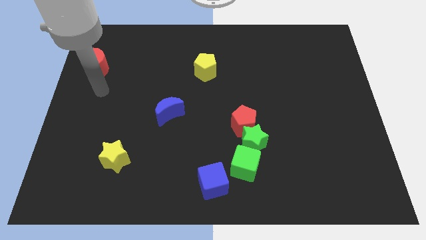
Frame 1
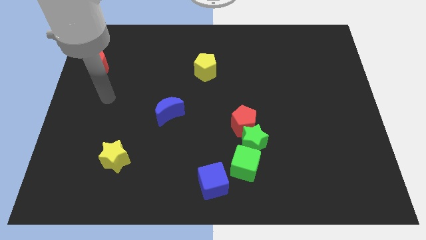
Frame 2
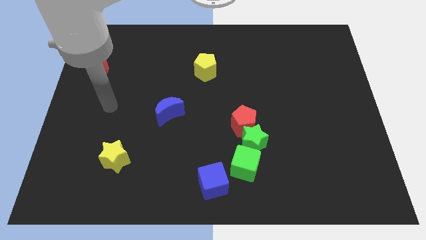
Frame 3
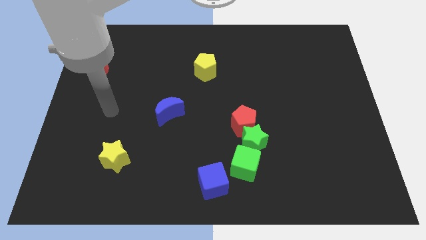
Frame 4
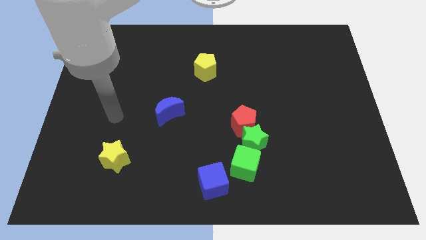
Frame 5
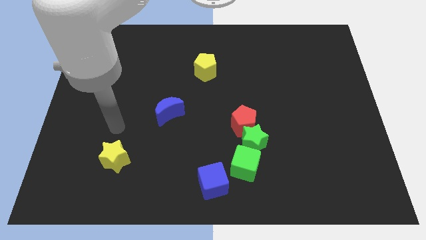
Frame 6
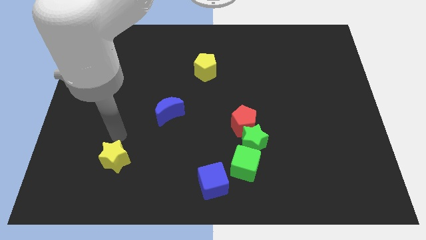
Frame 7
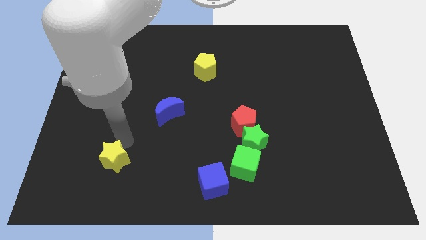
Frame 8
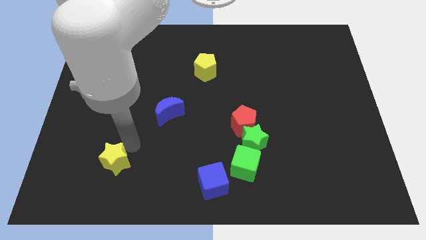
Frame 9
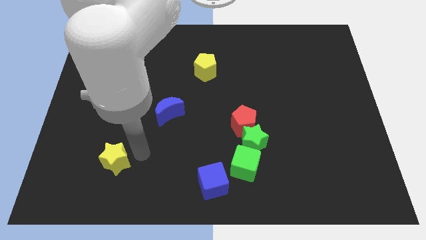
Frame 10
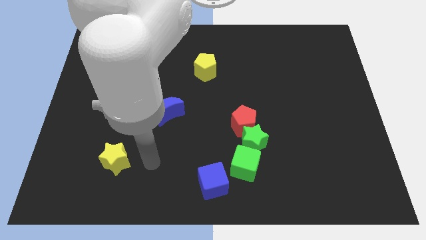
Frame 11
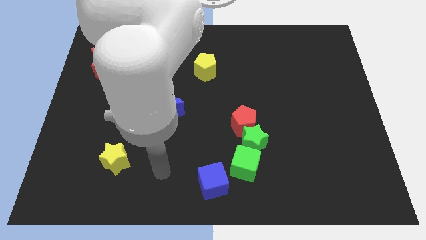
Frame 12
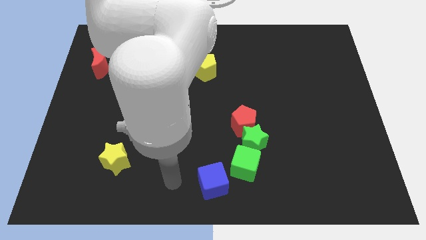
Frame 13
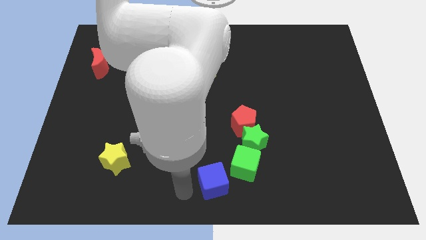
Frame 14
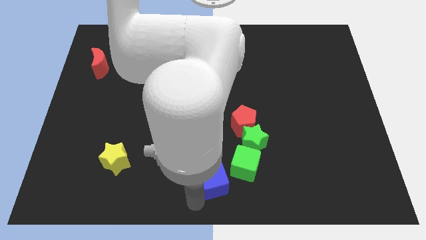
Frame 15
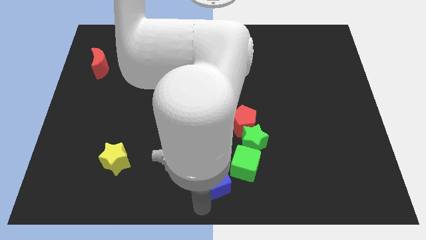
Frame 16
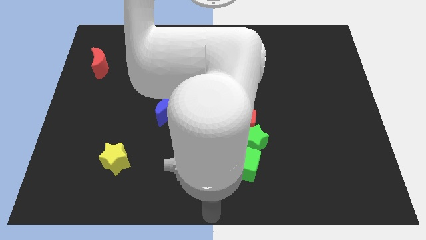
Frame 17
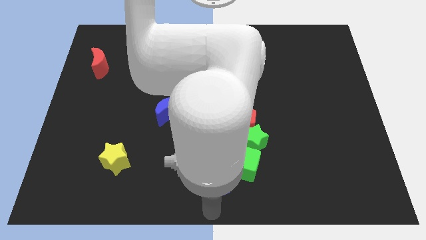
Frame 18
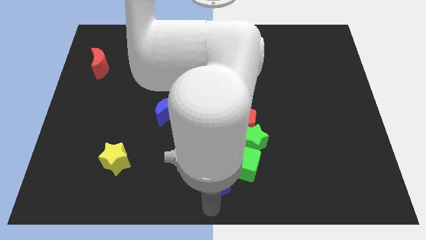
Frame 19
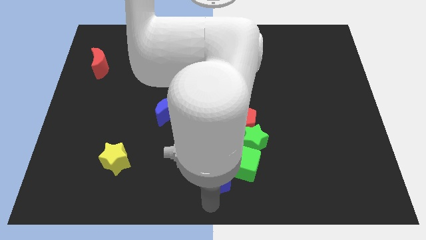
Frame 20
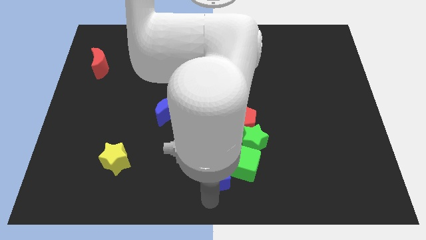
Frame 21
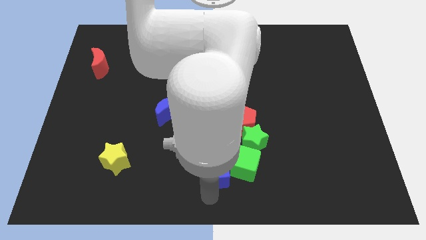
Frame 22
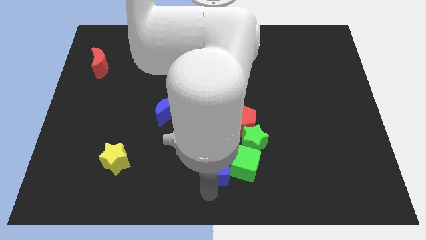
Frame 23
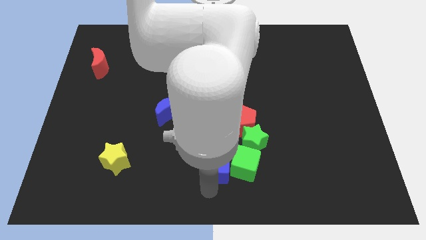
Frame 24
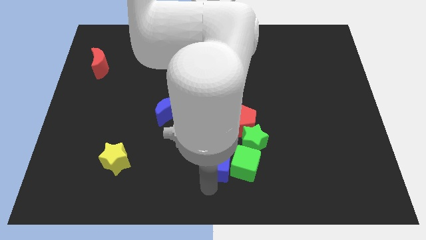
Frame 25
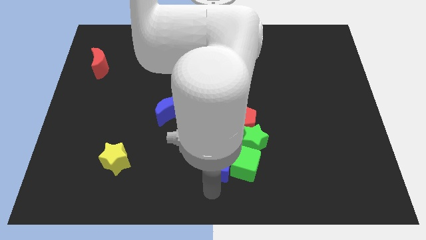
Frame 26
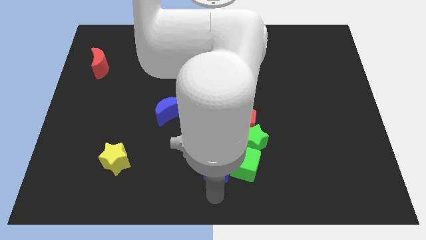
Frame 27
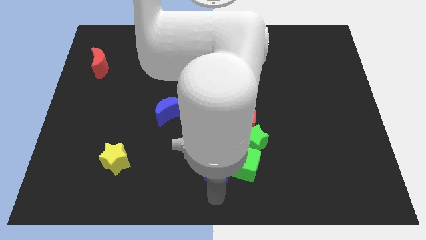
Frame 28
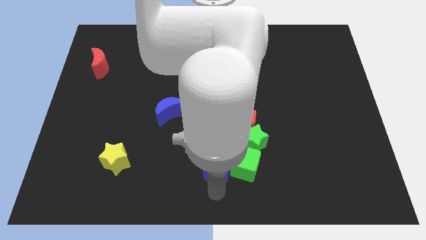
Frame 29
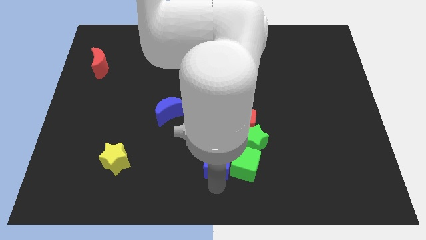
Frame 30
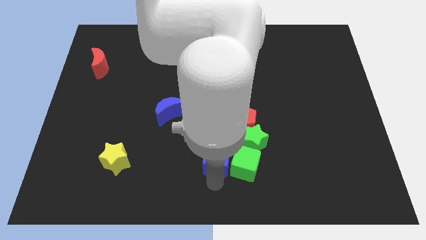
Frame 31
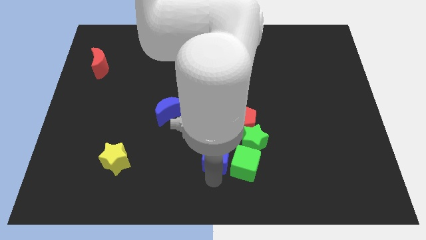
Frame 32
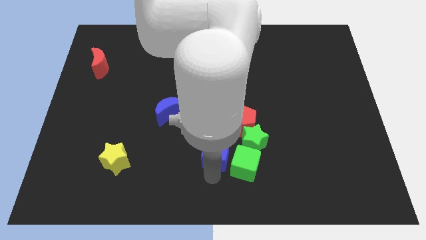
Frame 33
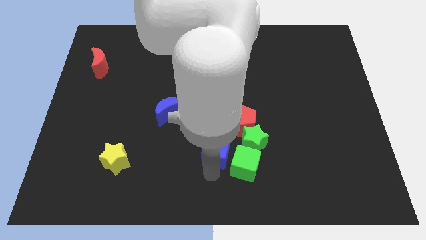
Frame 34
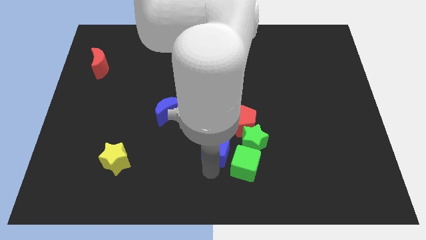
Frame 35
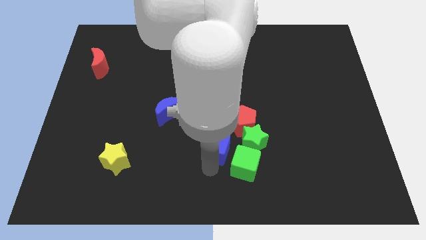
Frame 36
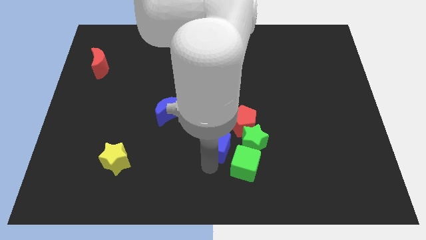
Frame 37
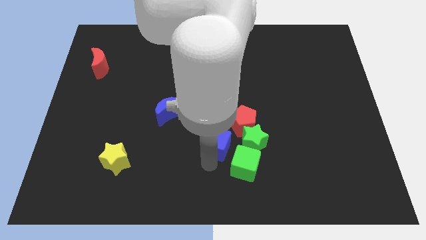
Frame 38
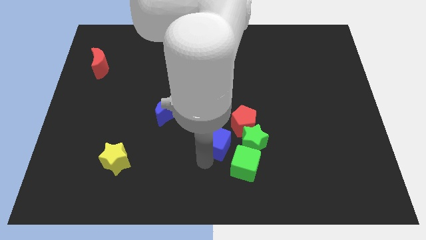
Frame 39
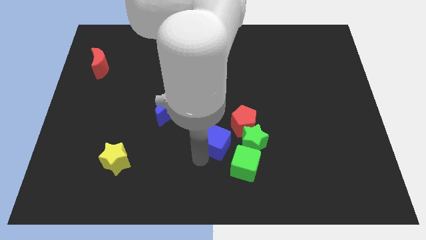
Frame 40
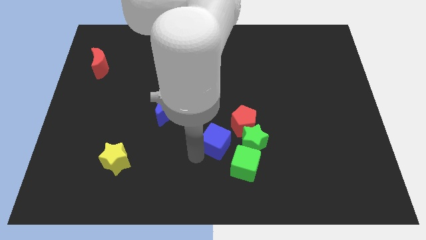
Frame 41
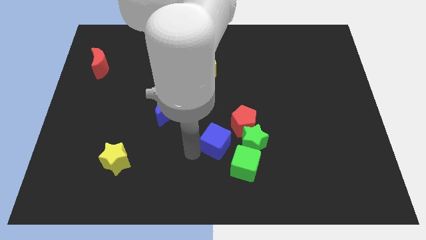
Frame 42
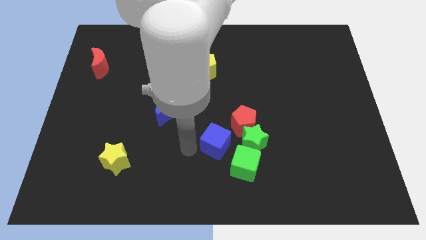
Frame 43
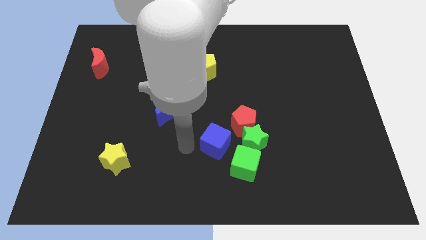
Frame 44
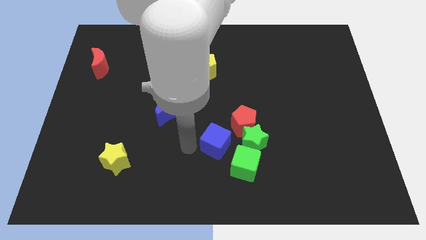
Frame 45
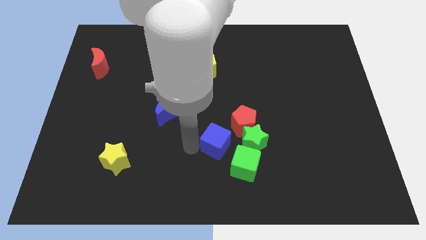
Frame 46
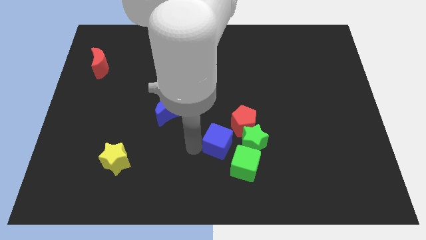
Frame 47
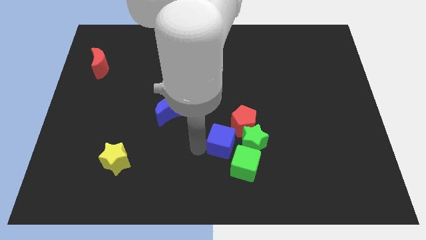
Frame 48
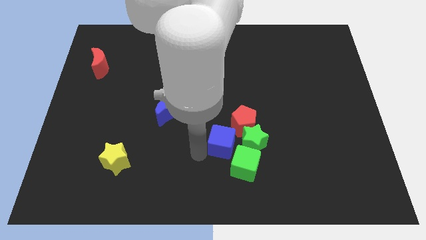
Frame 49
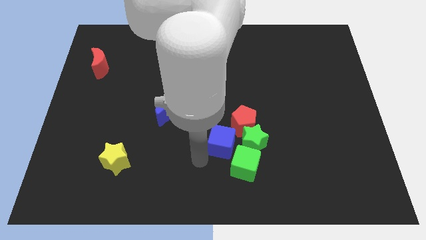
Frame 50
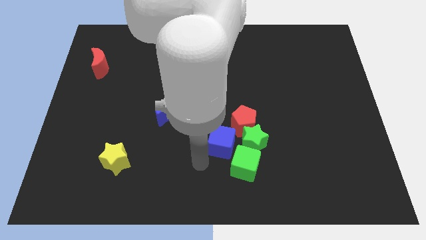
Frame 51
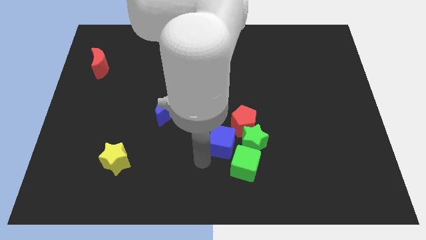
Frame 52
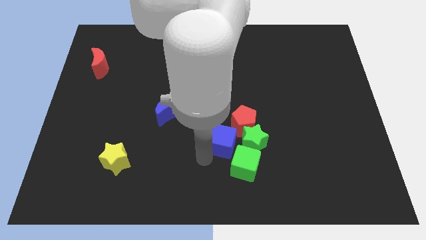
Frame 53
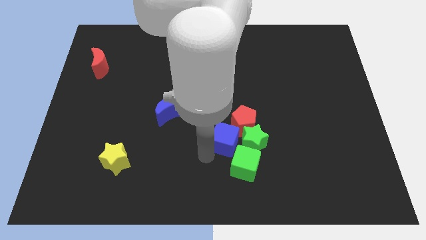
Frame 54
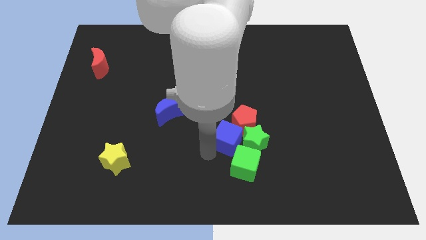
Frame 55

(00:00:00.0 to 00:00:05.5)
push the blue cube next to the red pentagon

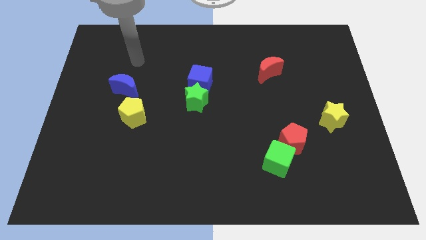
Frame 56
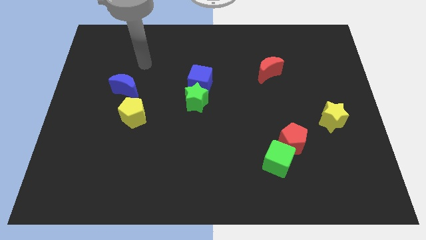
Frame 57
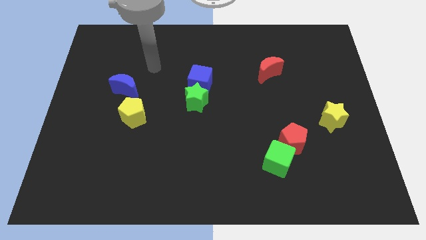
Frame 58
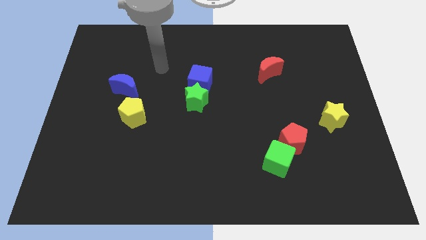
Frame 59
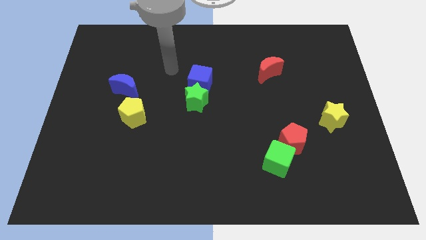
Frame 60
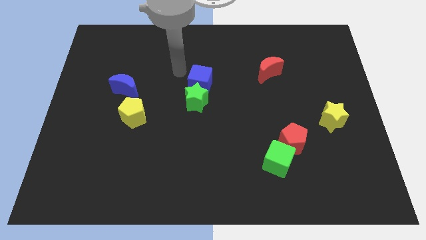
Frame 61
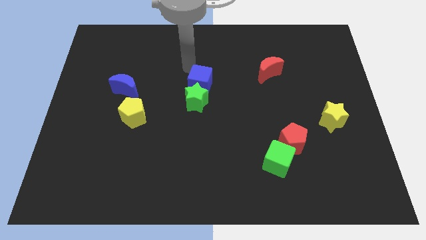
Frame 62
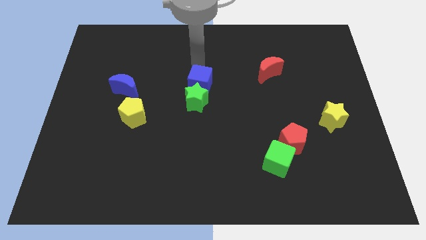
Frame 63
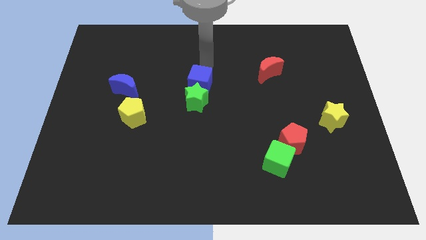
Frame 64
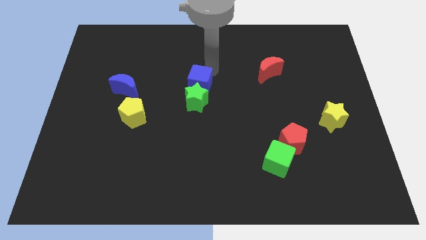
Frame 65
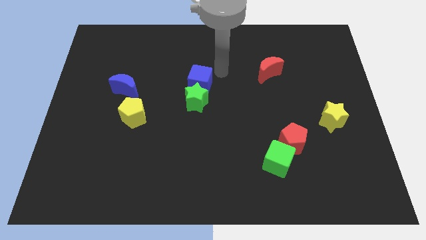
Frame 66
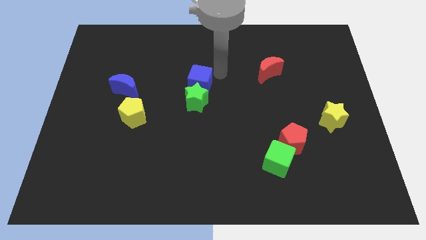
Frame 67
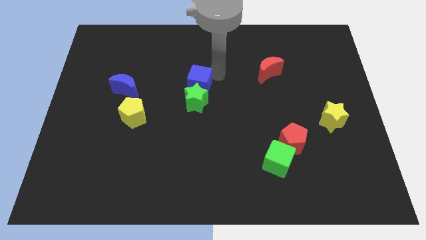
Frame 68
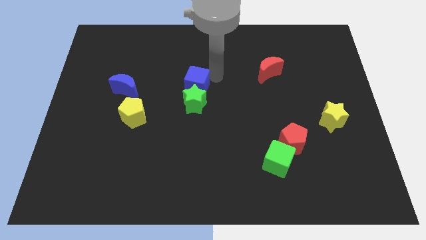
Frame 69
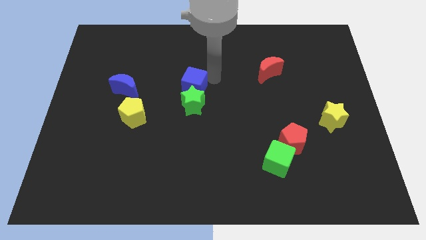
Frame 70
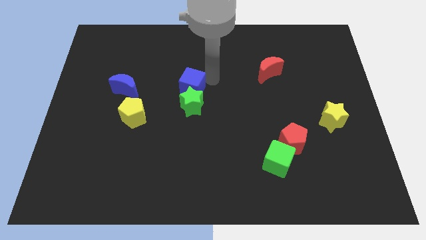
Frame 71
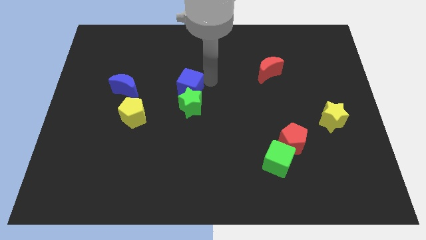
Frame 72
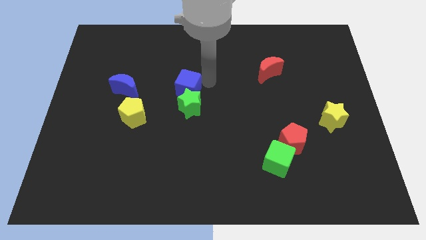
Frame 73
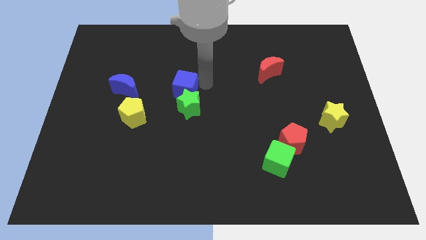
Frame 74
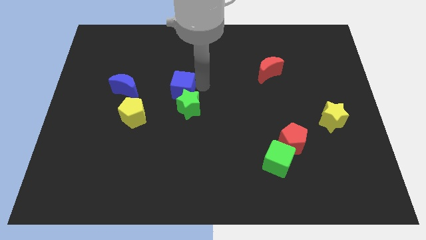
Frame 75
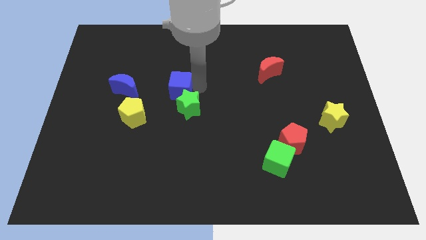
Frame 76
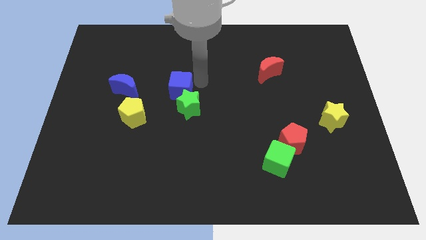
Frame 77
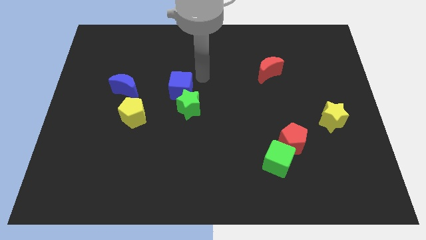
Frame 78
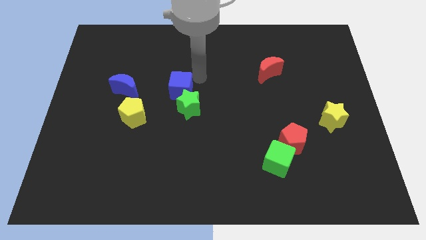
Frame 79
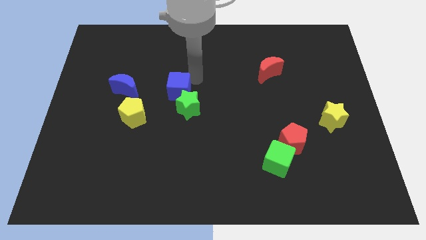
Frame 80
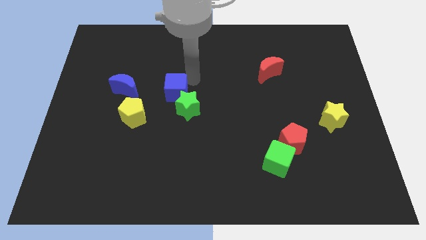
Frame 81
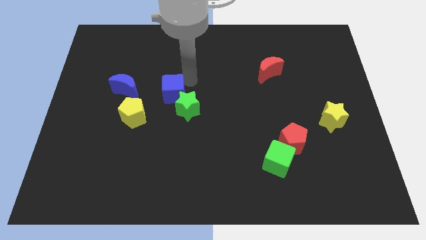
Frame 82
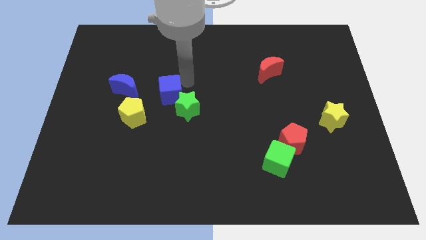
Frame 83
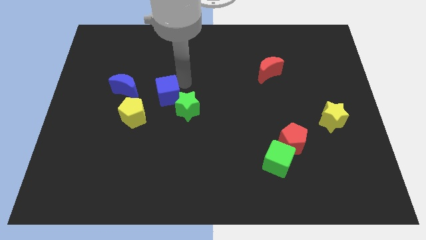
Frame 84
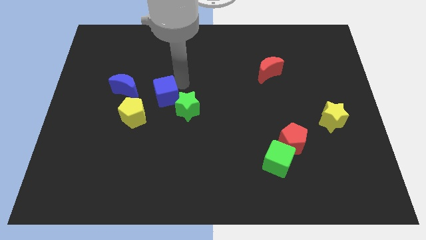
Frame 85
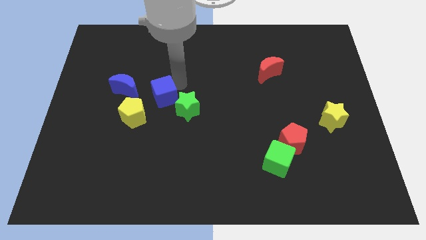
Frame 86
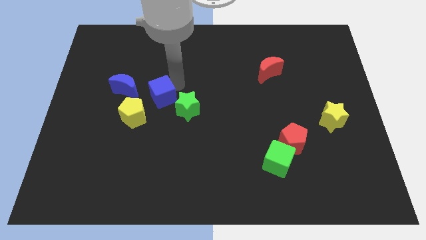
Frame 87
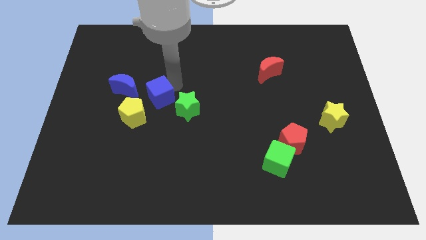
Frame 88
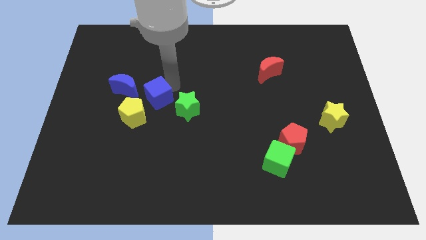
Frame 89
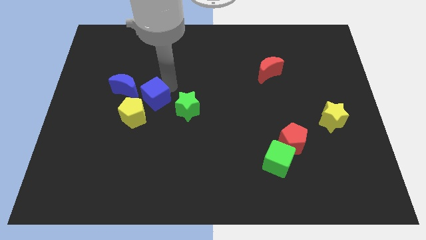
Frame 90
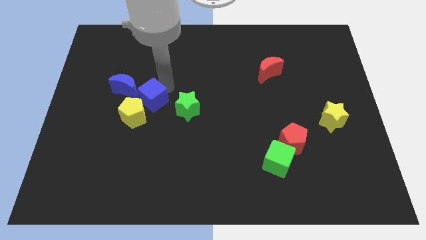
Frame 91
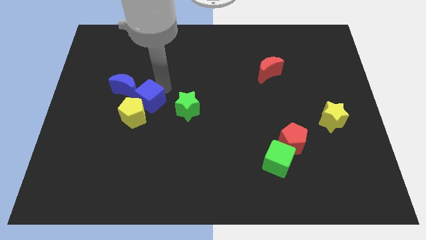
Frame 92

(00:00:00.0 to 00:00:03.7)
put the blue cube to the yellow pentagon
